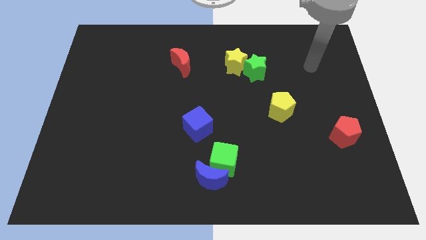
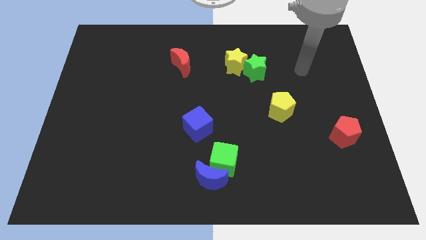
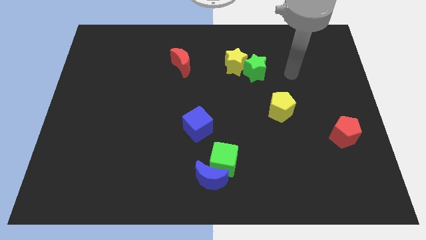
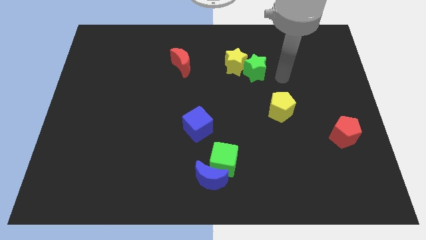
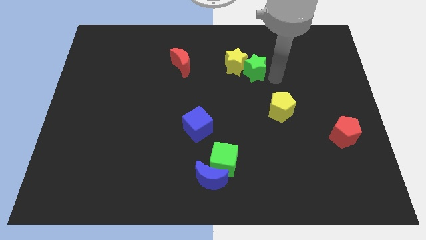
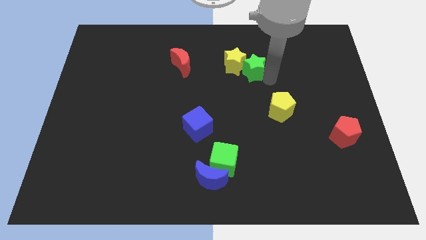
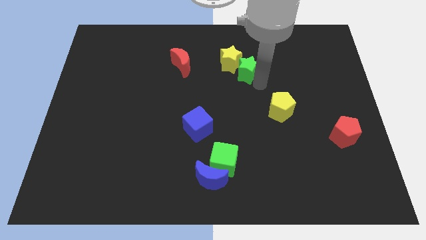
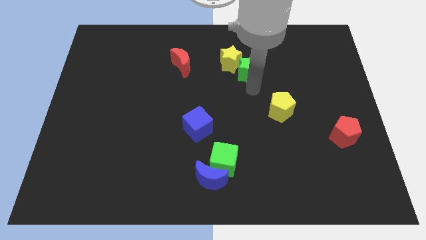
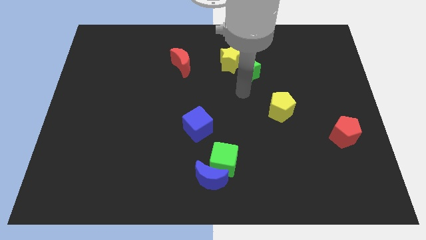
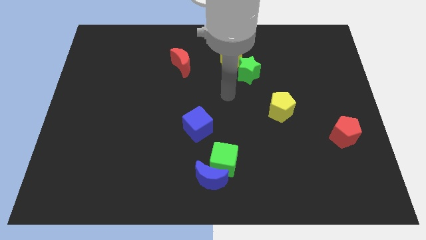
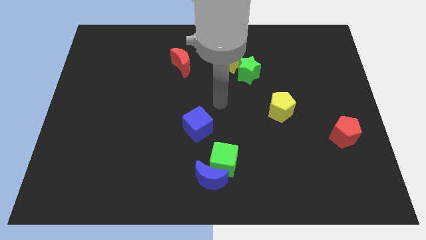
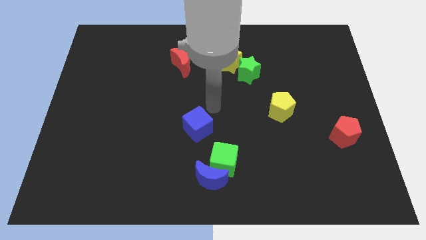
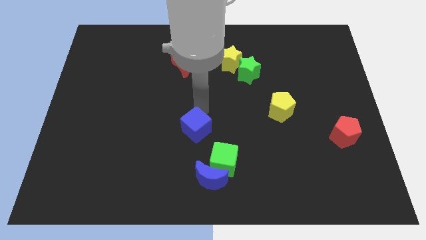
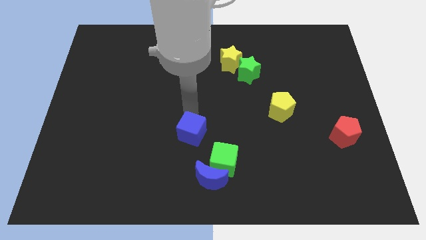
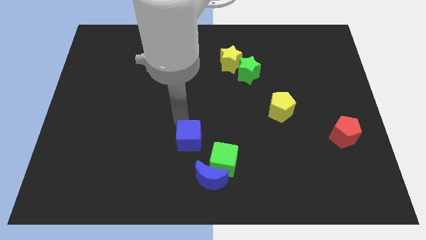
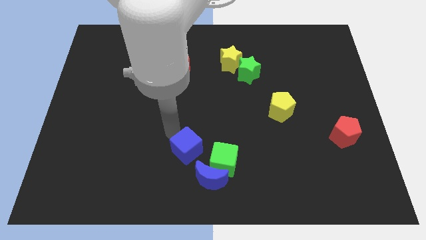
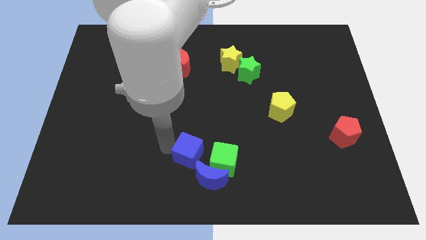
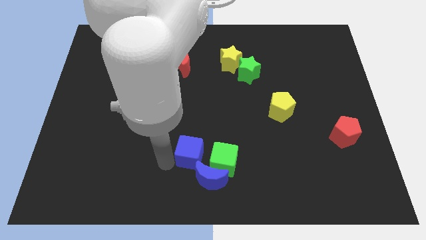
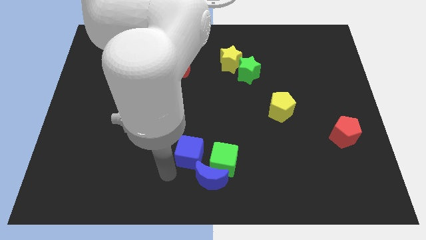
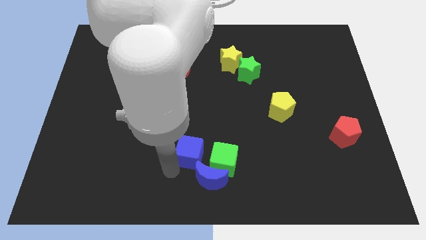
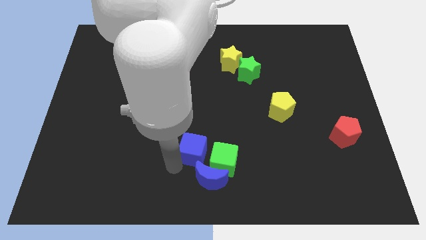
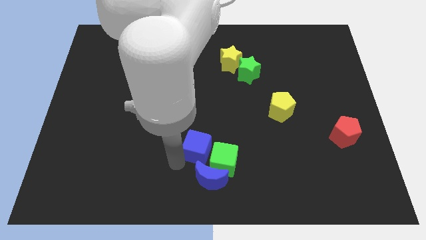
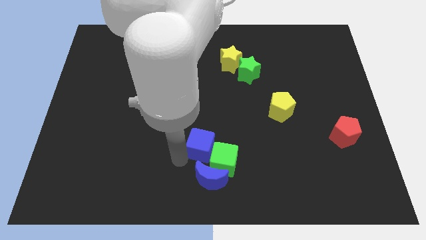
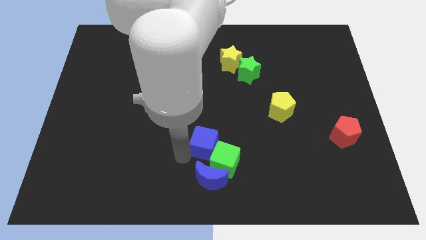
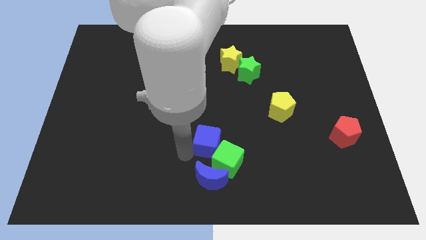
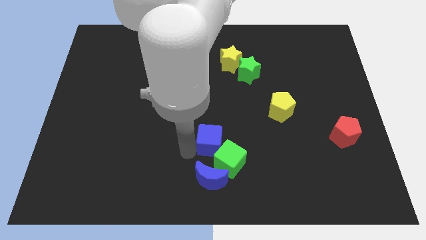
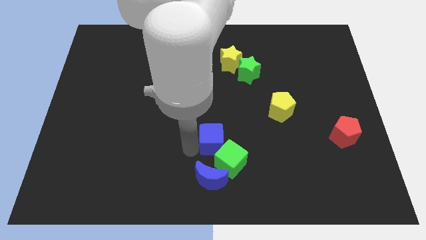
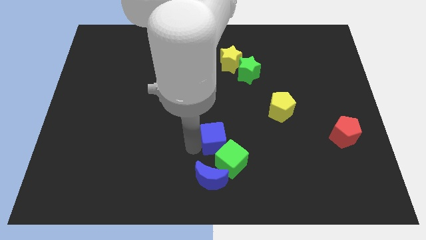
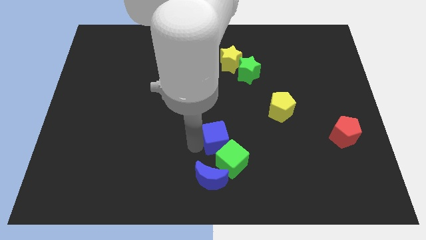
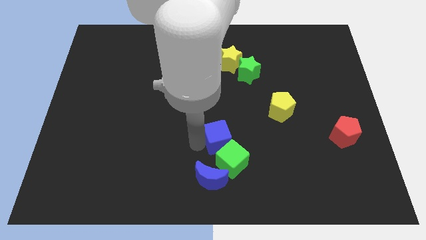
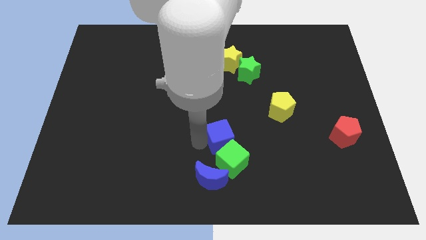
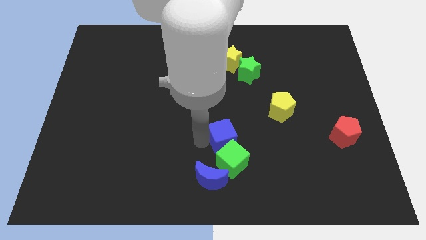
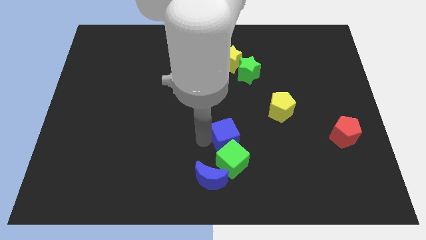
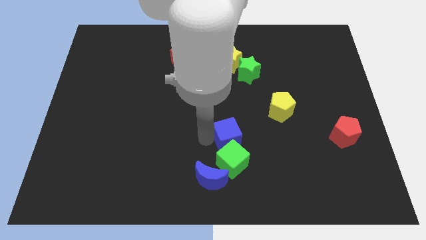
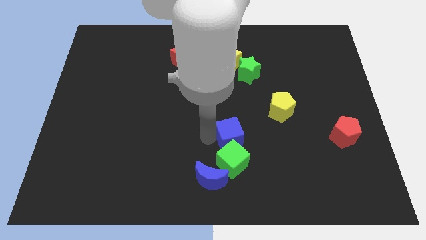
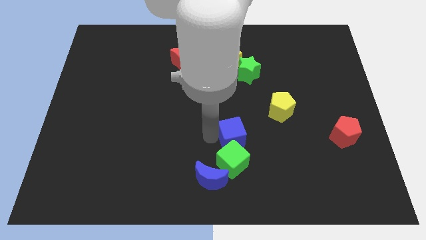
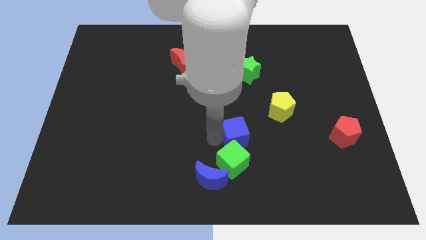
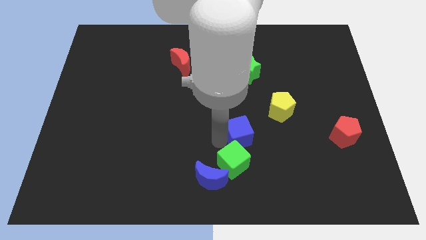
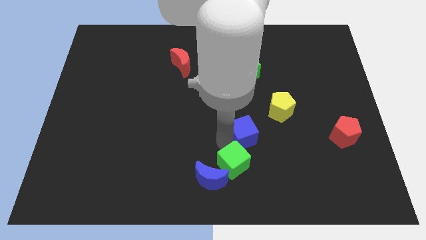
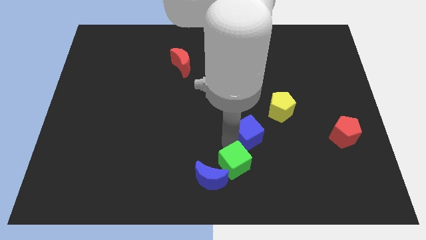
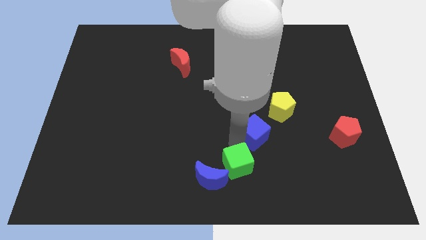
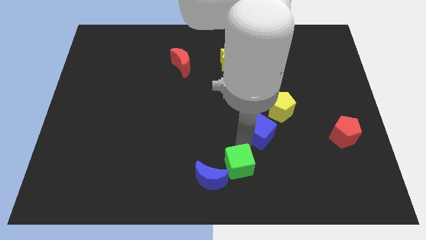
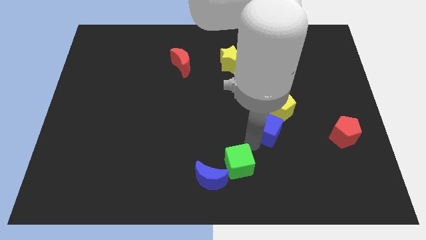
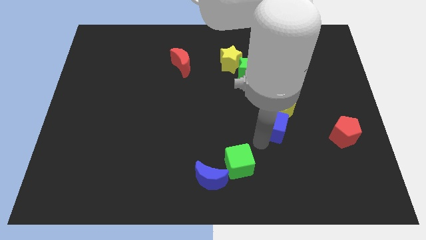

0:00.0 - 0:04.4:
push the blue cube close to the yellow pentagon

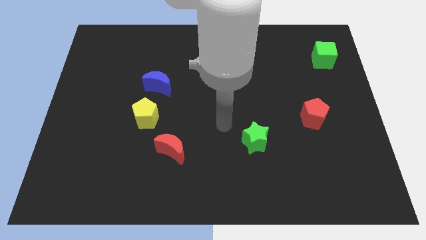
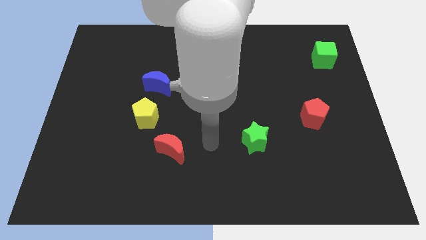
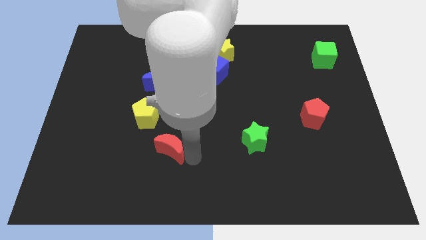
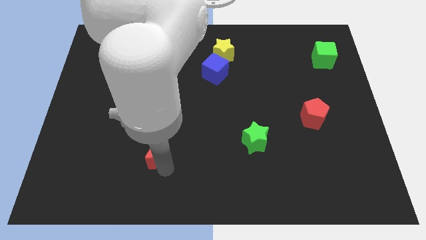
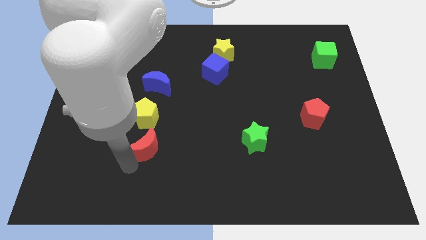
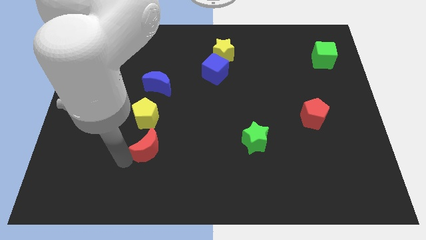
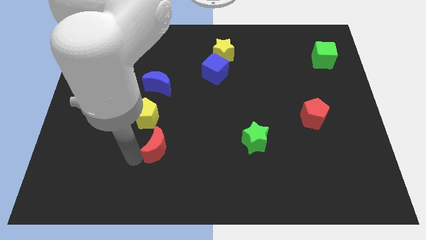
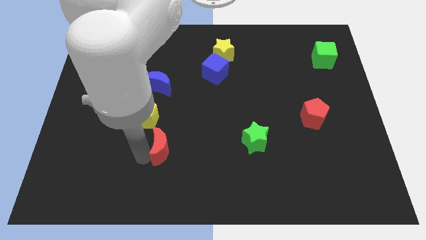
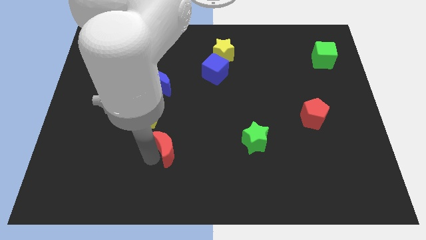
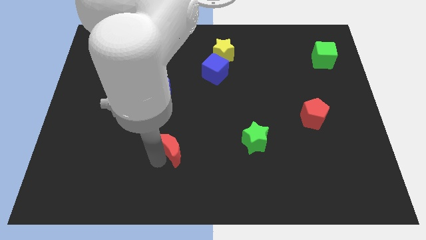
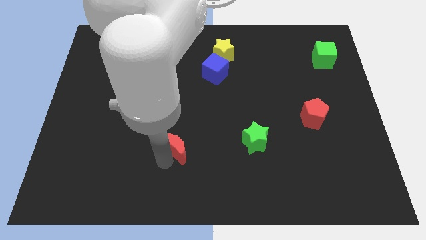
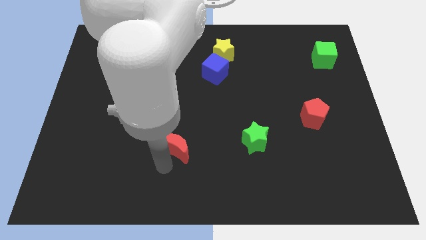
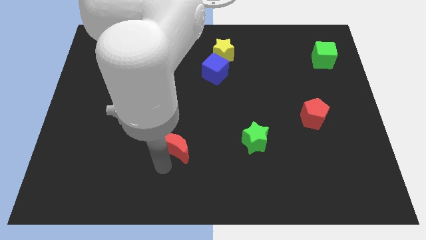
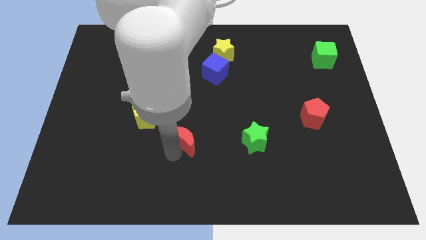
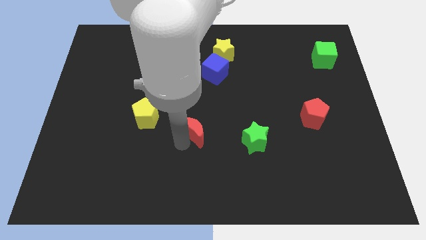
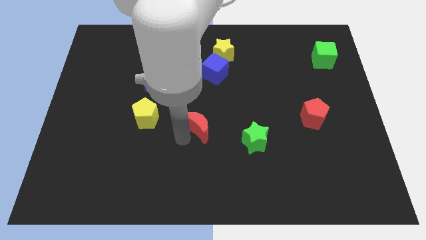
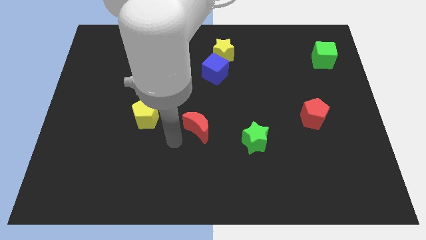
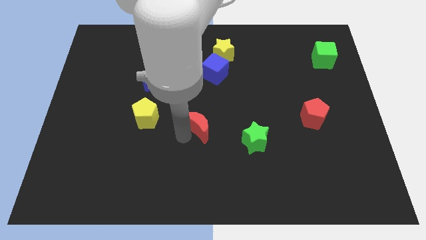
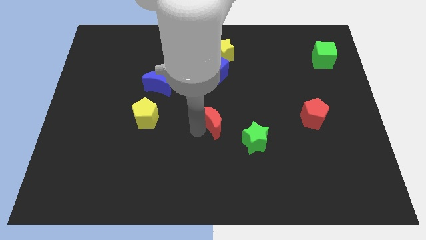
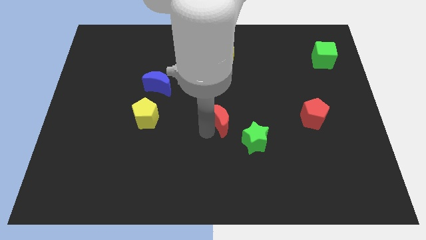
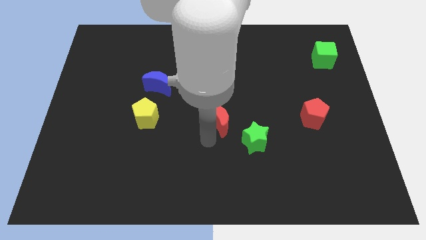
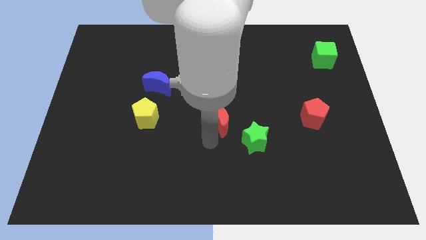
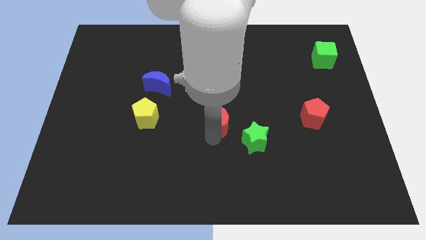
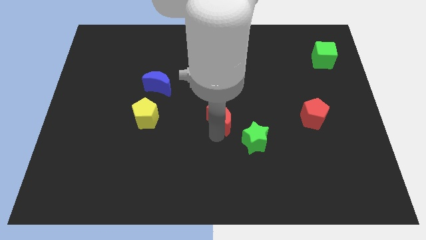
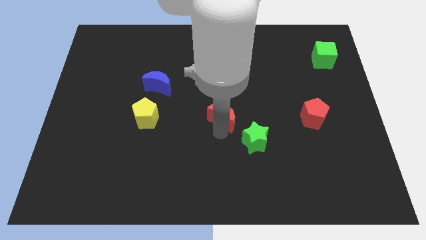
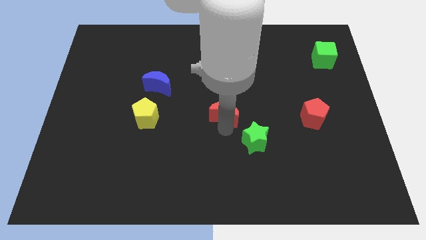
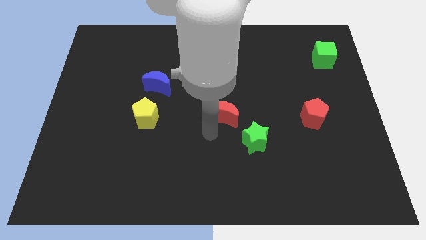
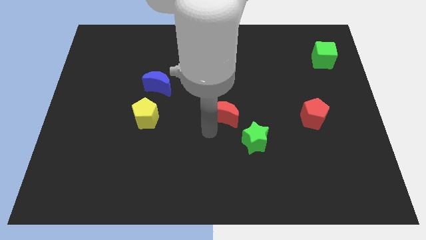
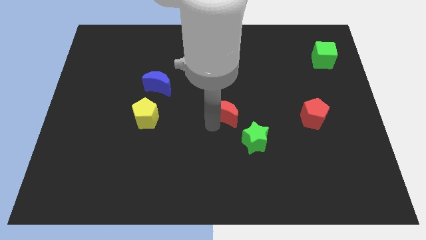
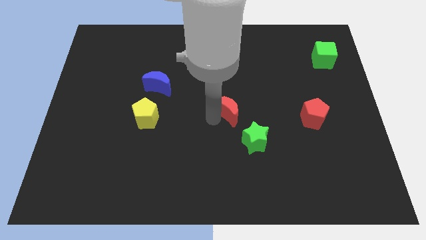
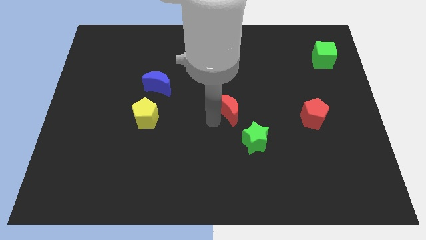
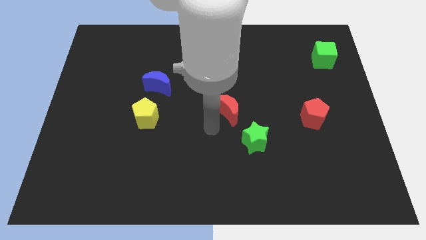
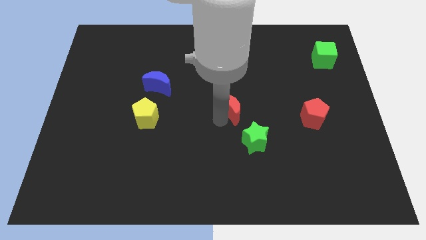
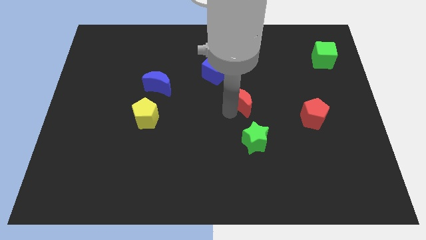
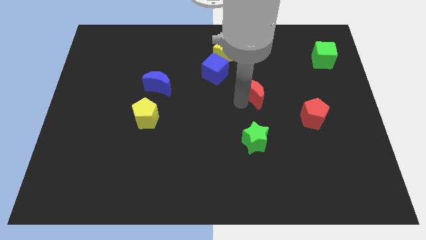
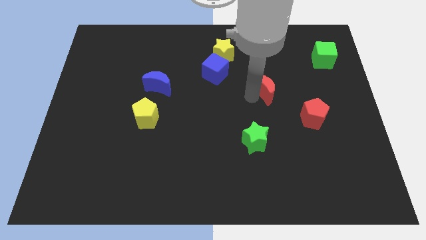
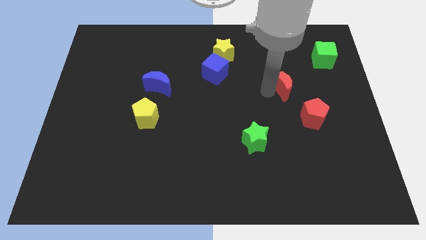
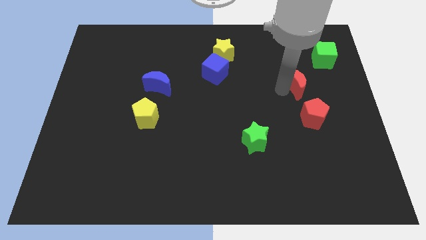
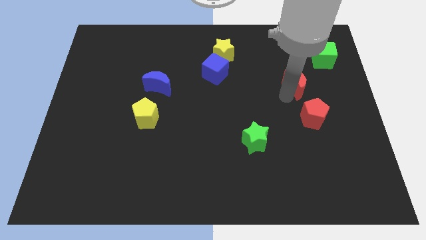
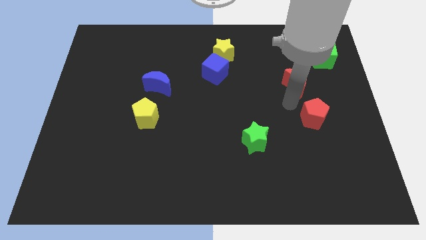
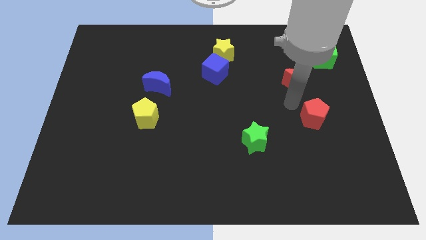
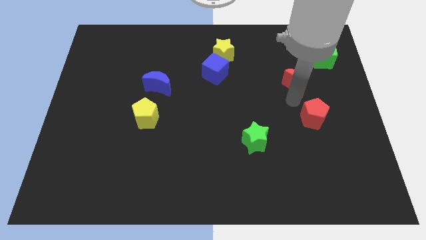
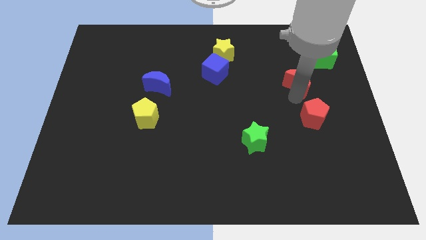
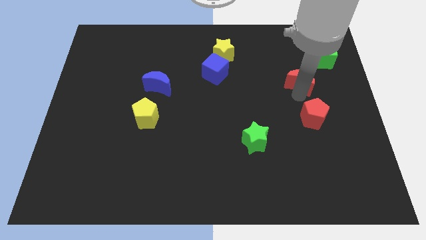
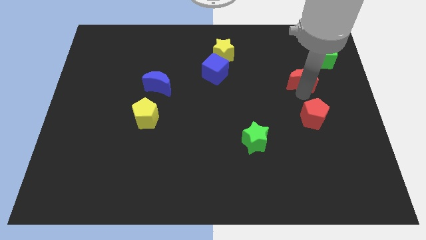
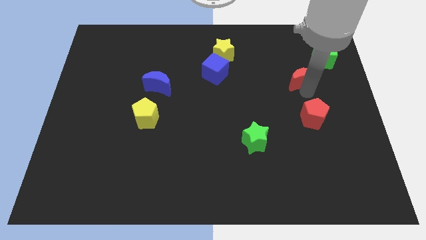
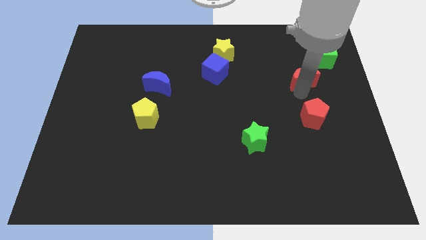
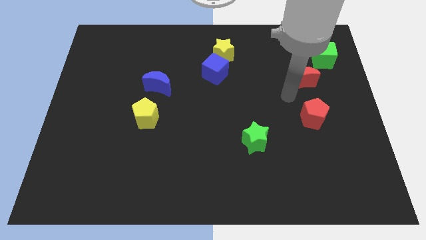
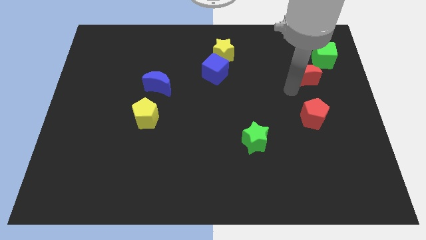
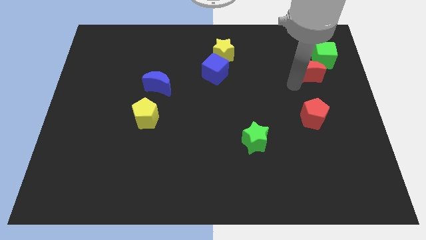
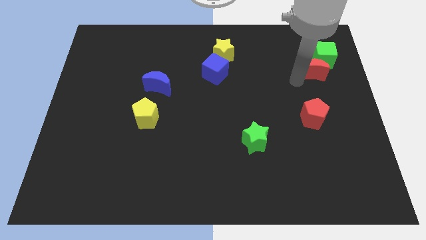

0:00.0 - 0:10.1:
push the red moon close to the green cube
